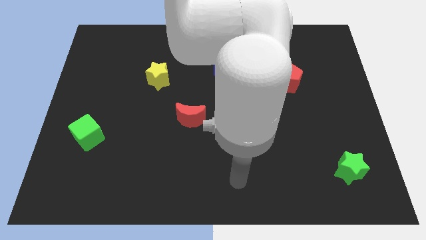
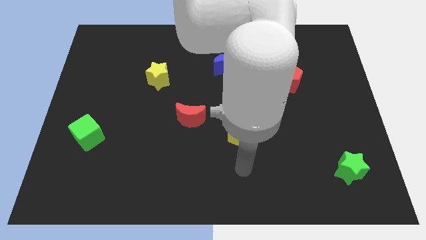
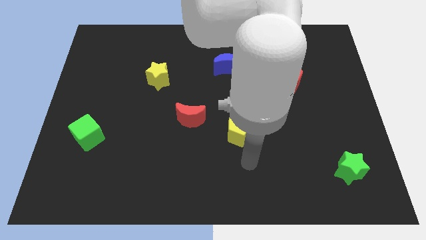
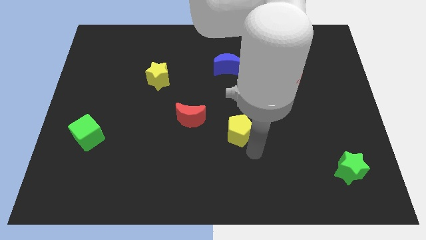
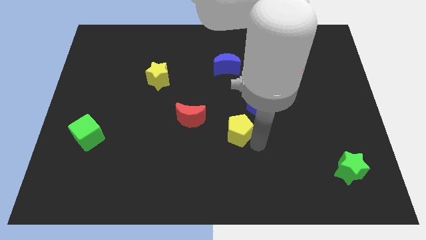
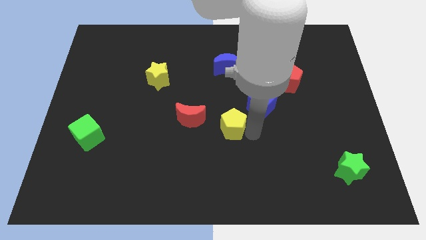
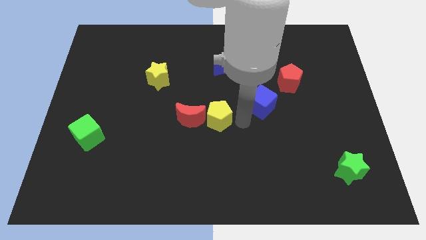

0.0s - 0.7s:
move the blue cube away from the yellow pentagon

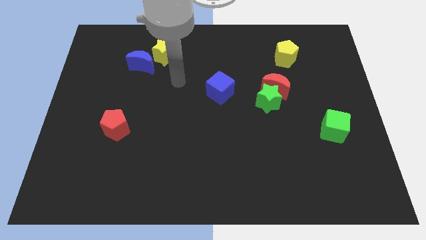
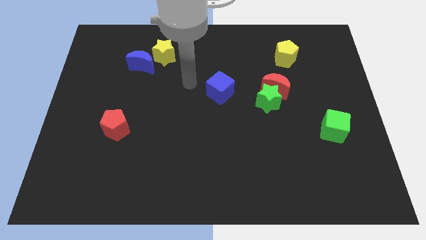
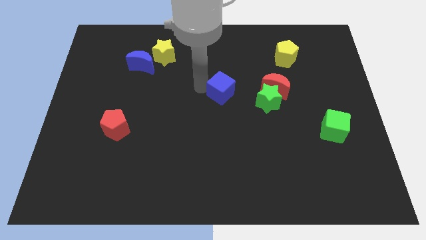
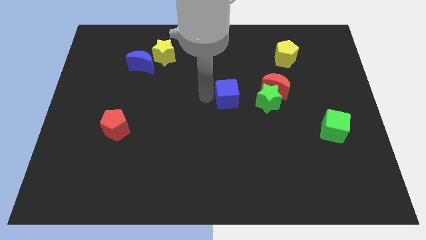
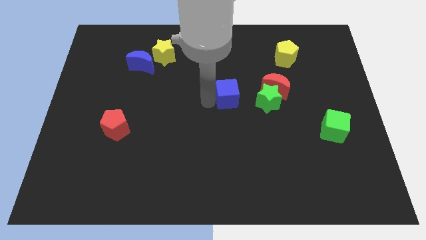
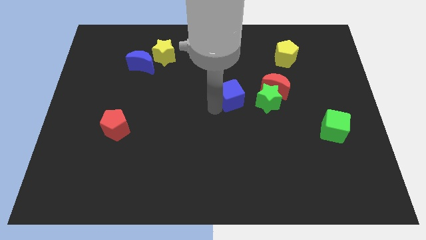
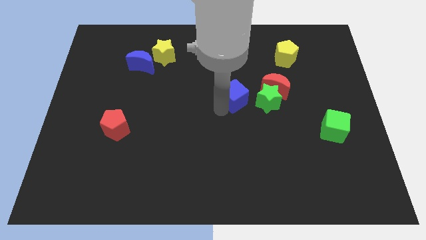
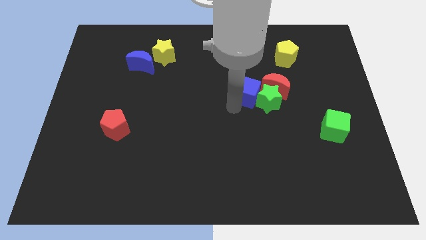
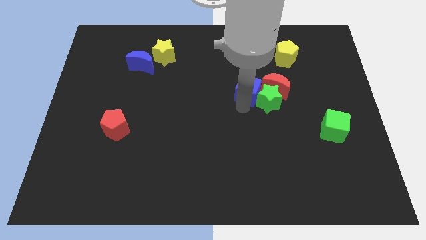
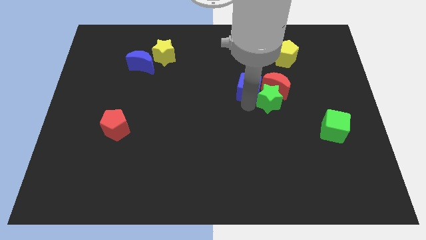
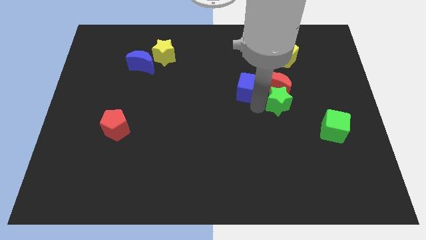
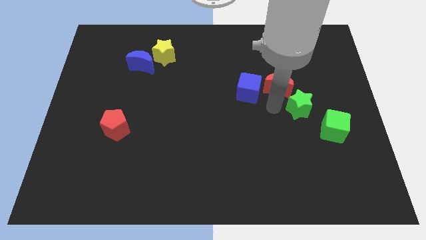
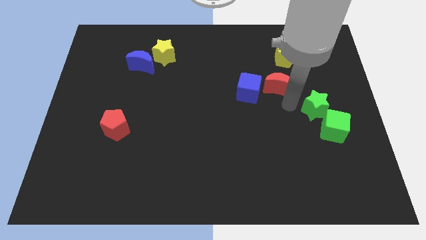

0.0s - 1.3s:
move the red moon away from the green star

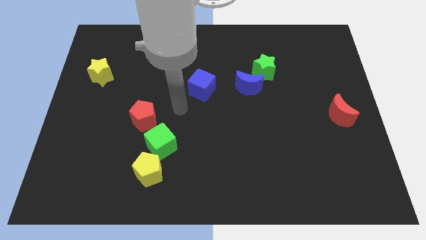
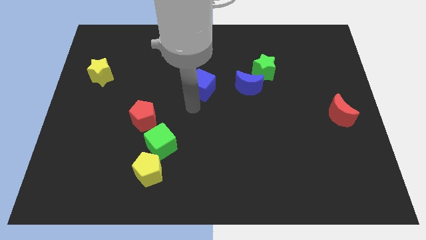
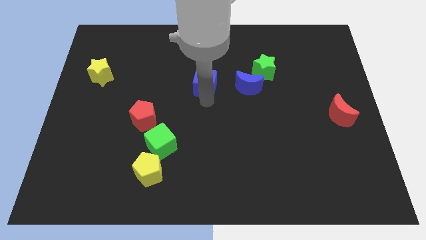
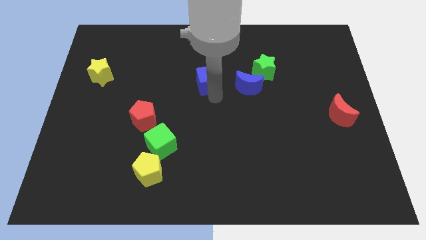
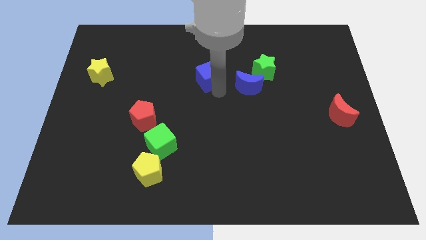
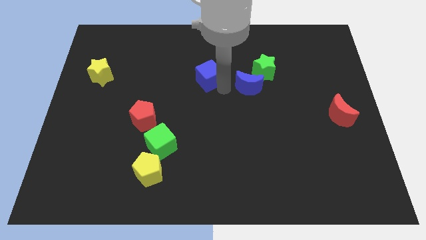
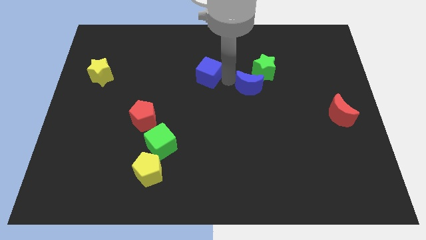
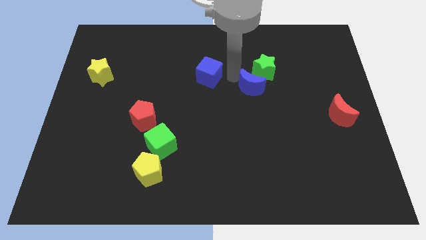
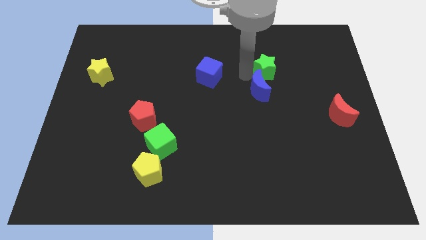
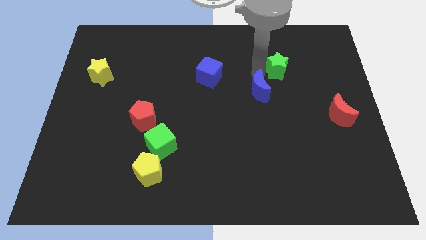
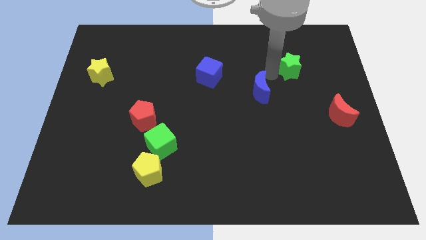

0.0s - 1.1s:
move the blue moon away from the green star

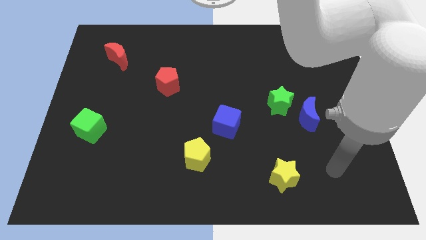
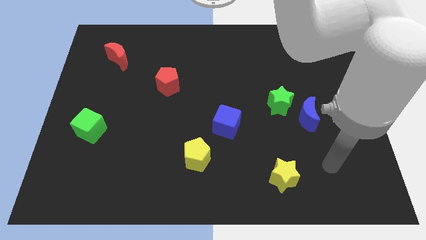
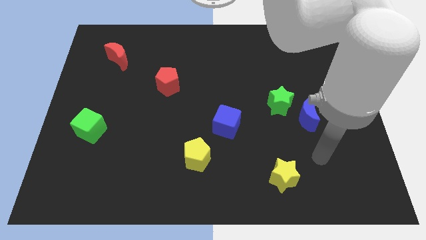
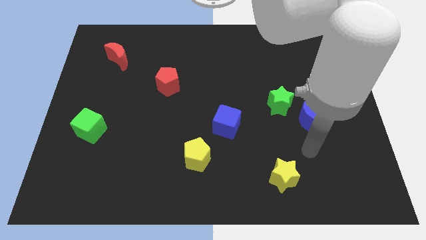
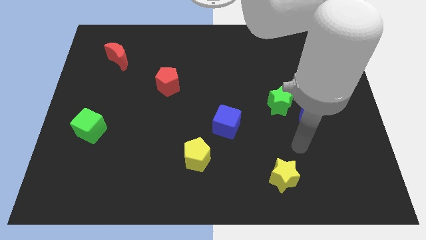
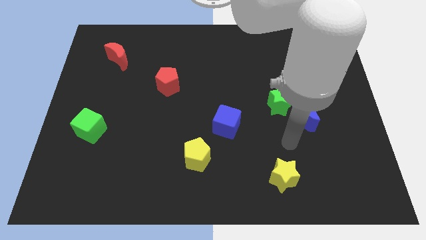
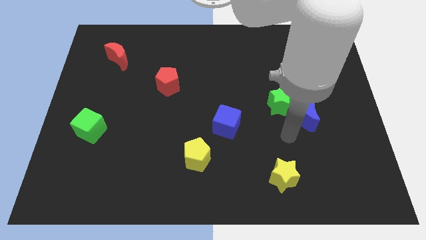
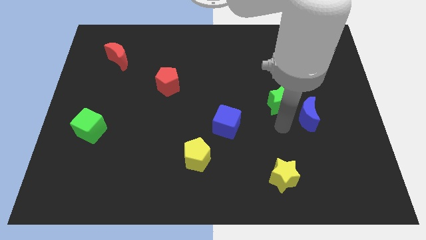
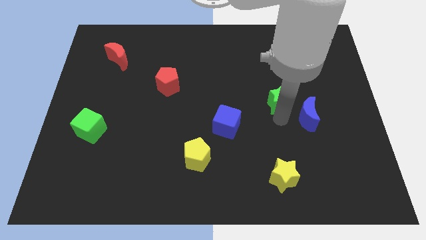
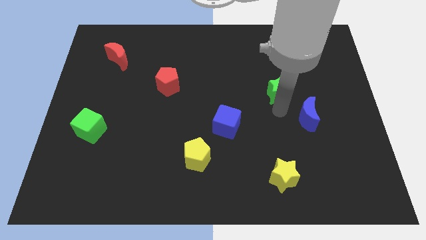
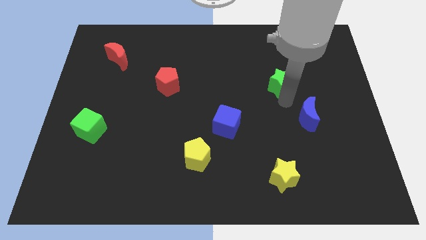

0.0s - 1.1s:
pull the blue moon apart from the green star

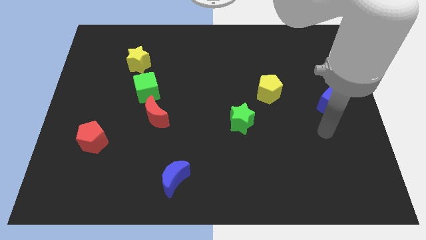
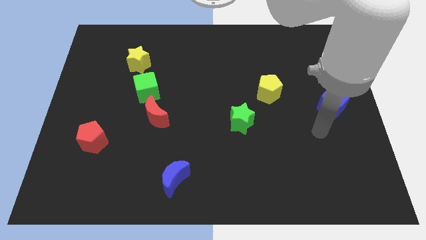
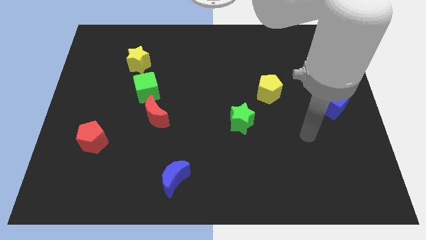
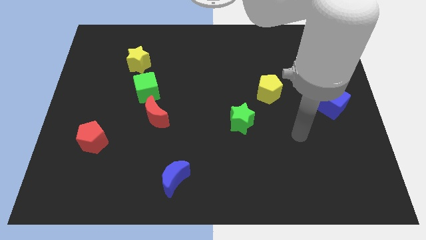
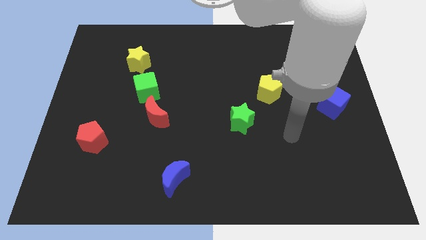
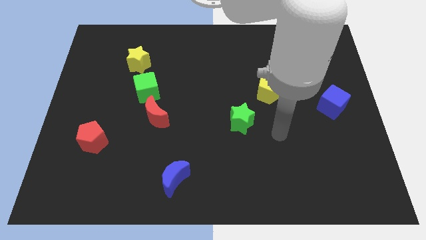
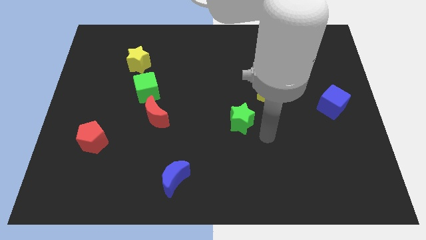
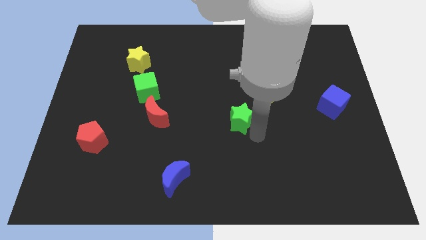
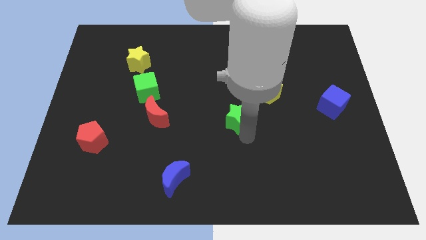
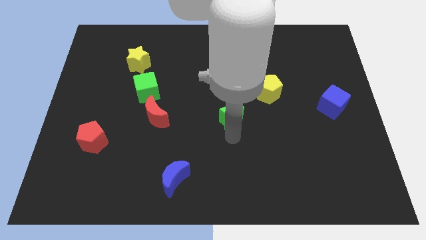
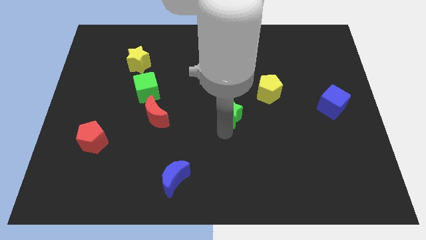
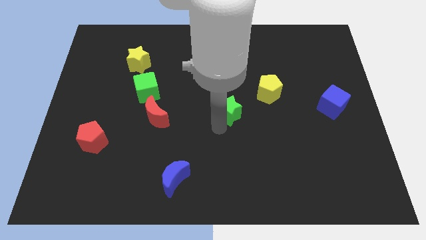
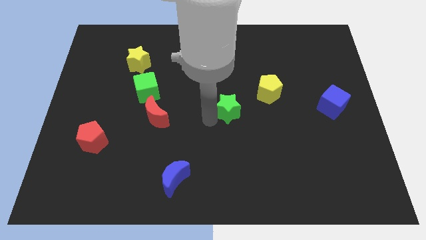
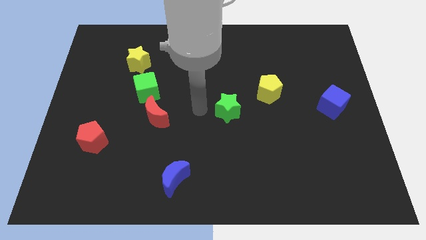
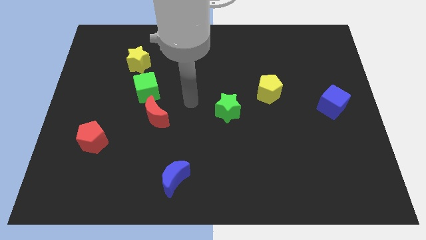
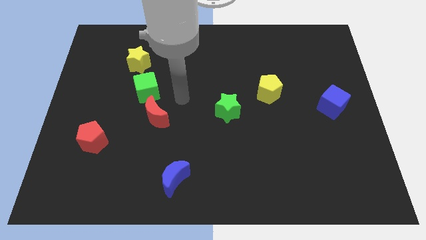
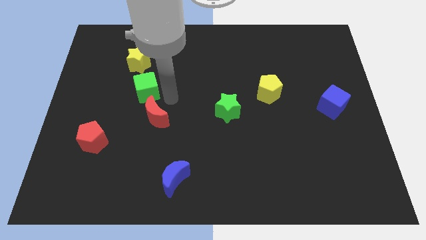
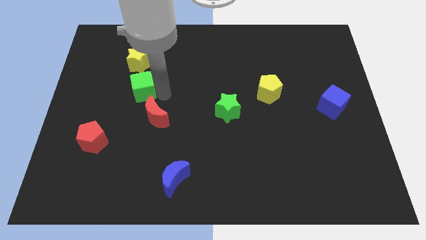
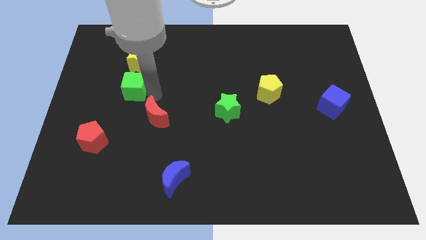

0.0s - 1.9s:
pull the red moon apart from the green cube

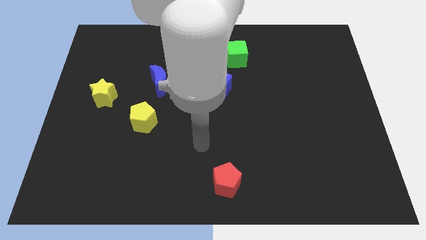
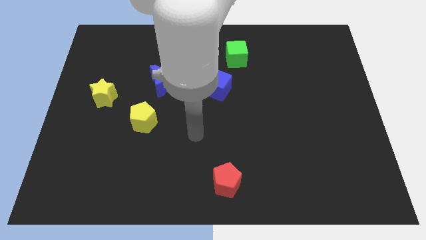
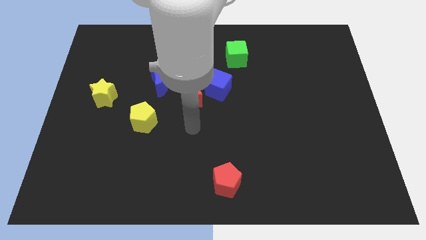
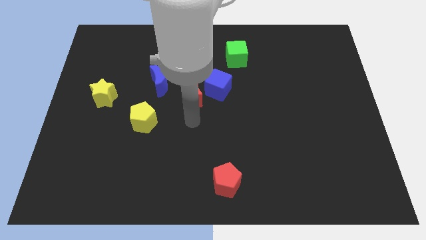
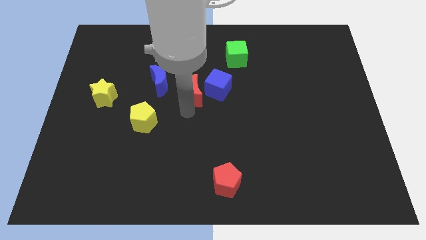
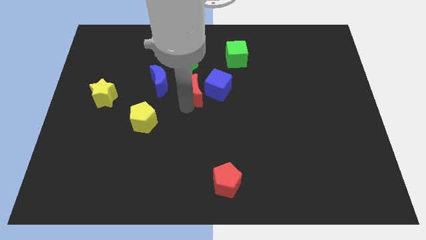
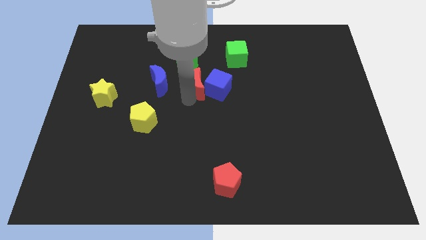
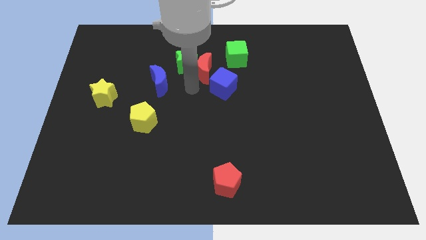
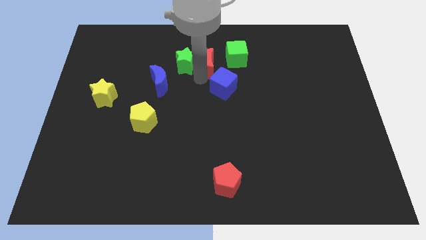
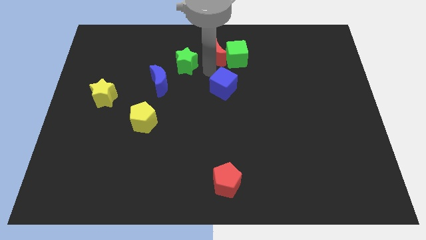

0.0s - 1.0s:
pull the blue cube apart from the red moon

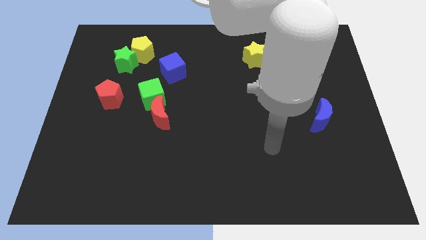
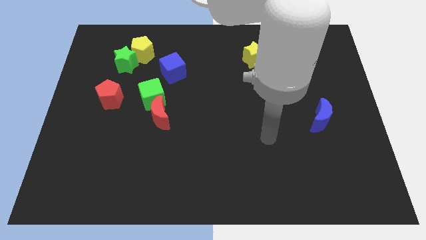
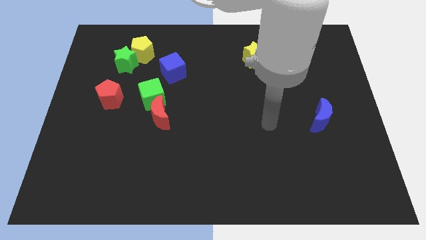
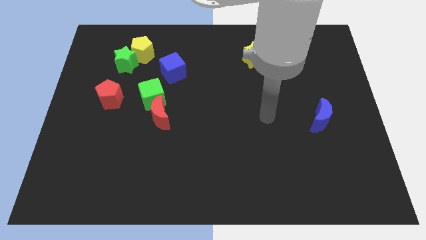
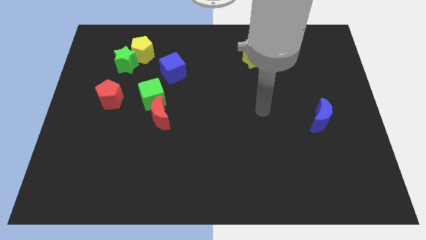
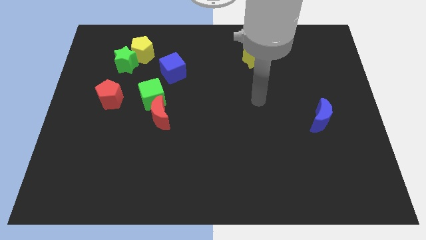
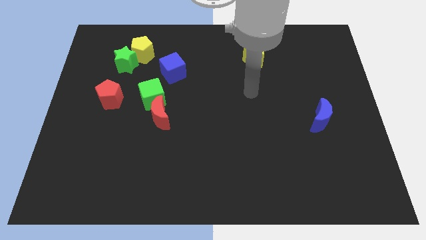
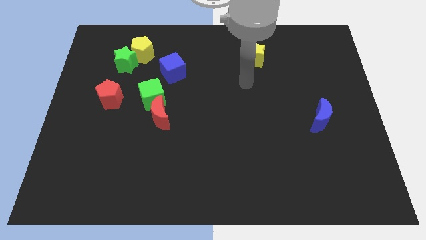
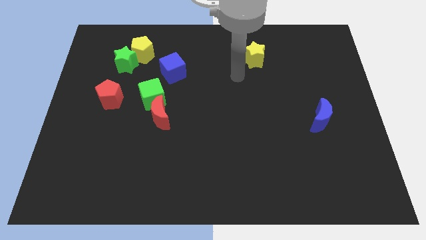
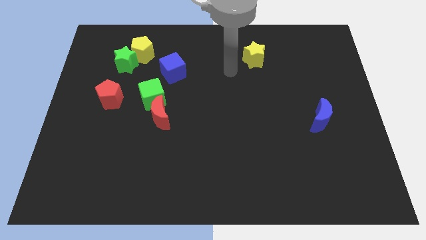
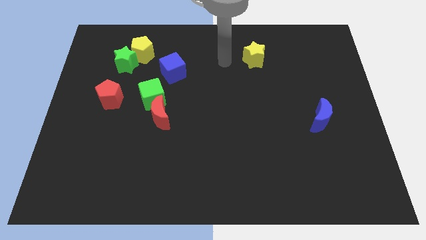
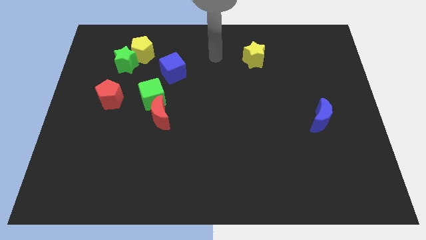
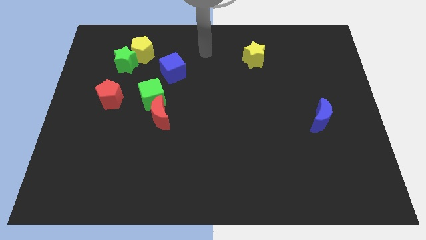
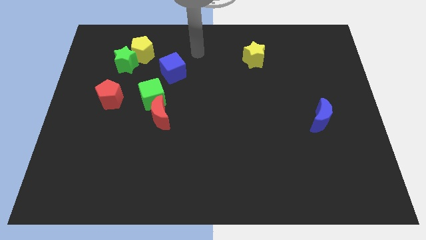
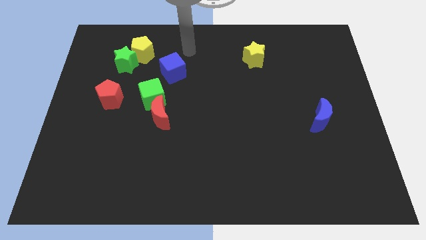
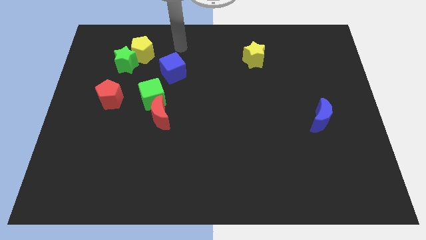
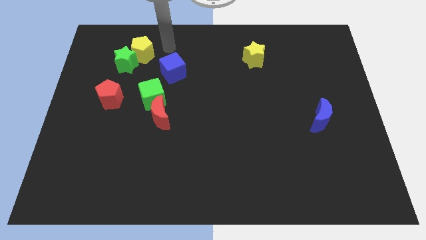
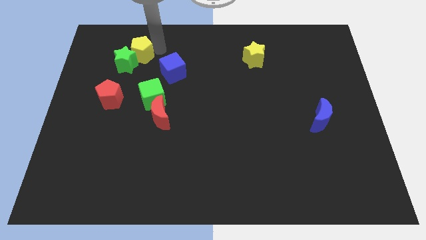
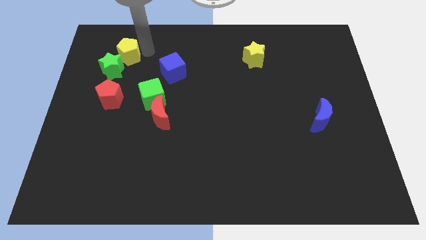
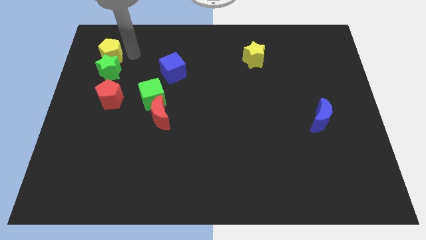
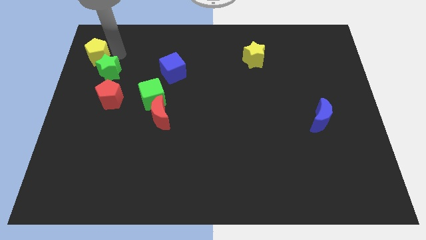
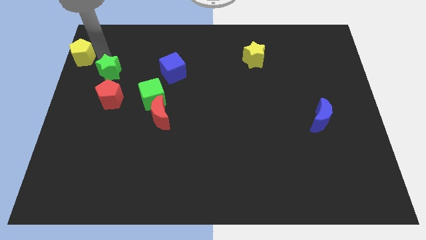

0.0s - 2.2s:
separate the green star from the yellow pentagon

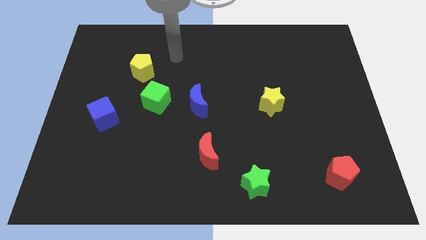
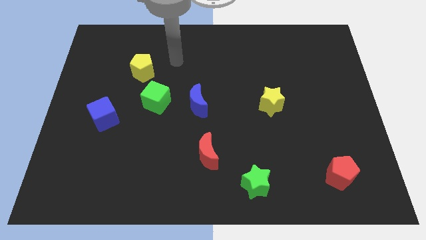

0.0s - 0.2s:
separate the blue moon from the green cube
